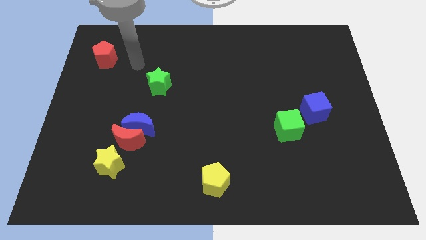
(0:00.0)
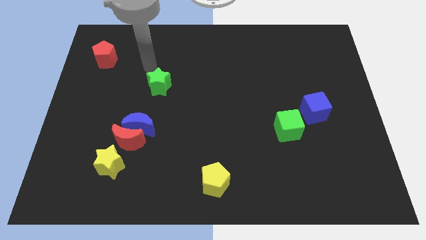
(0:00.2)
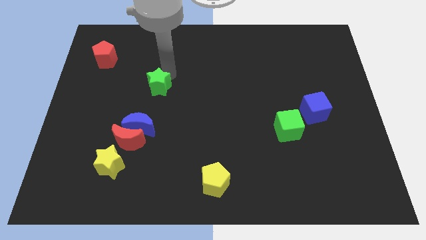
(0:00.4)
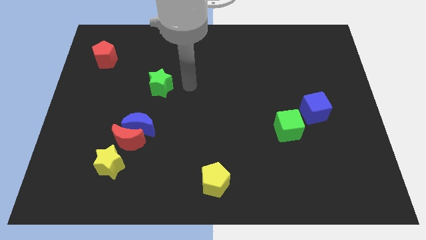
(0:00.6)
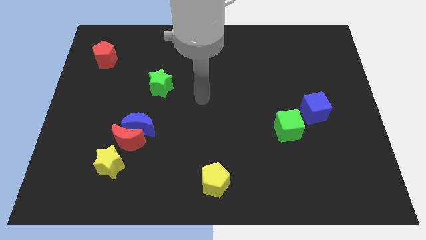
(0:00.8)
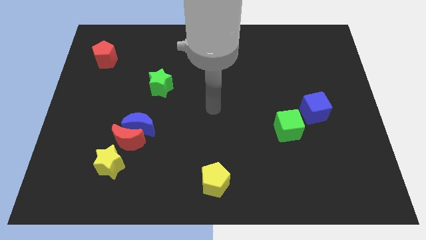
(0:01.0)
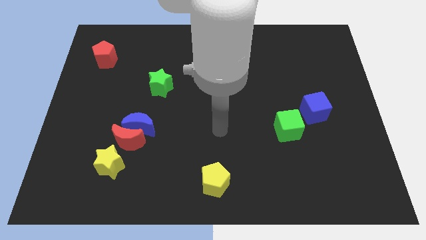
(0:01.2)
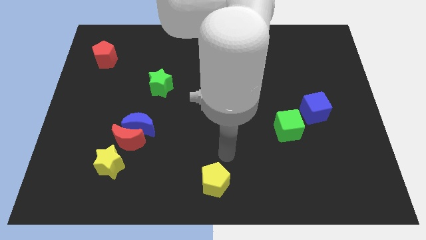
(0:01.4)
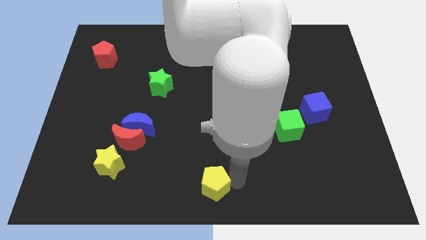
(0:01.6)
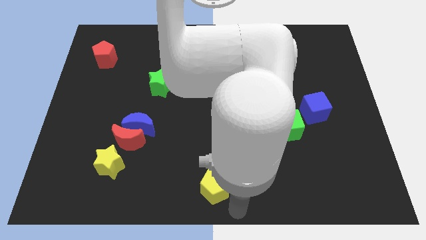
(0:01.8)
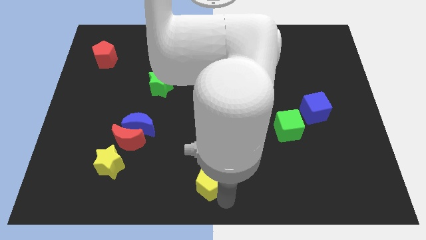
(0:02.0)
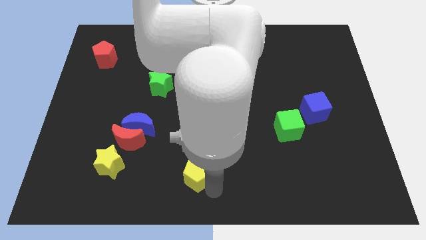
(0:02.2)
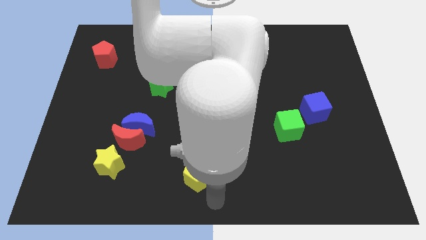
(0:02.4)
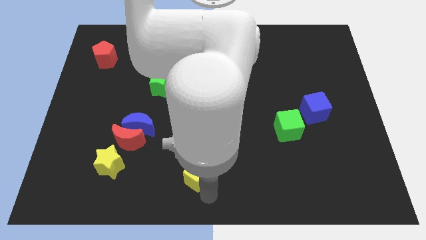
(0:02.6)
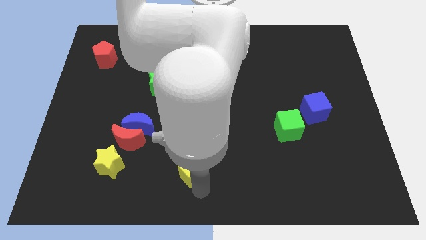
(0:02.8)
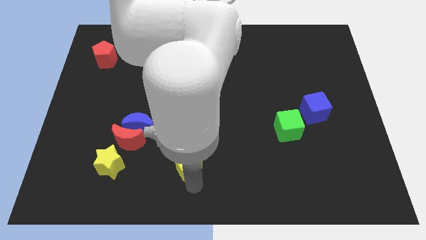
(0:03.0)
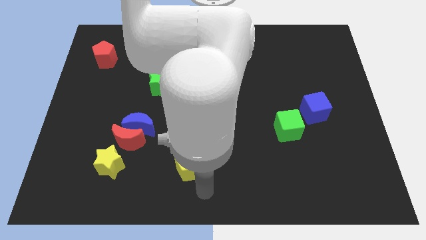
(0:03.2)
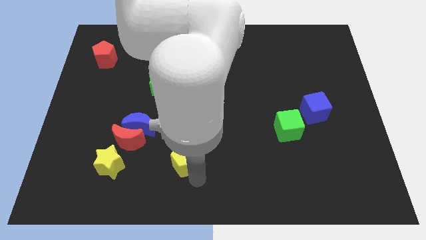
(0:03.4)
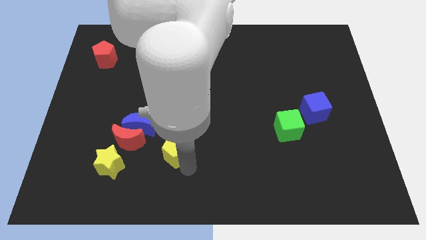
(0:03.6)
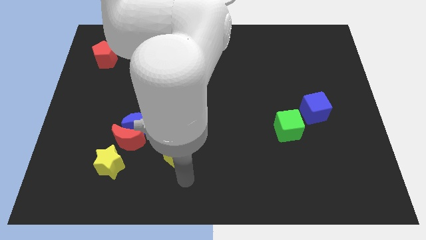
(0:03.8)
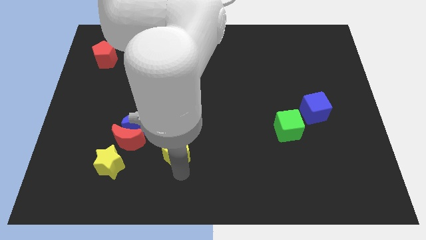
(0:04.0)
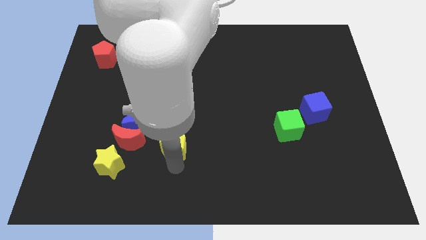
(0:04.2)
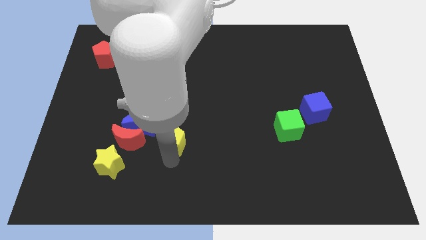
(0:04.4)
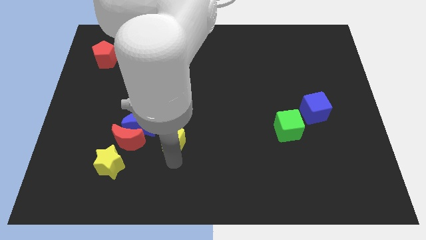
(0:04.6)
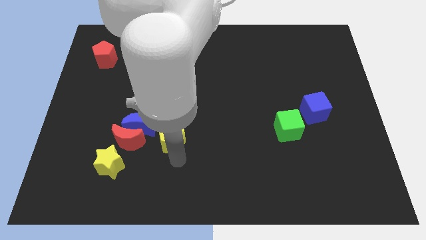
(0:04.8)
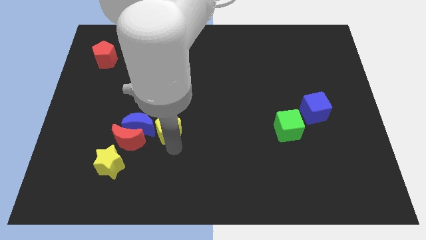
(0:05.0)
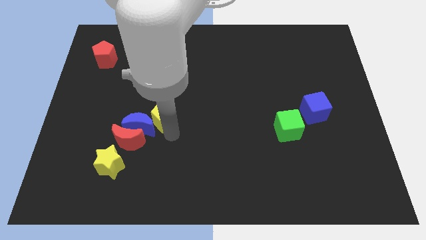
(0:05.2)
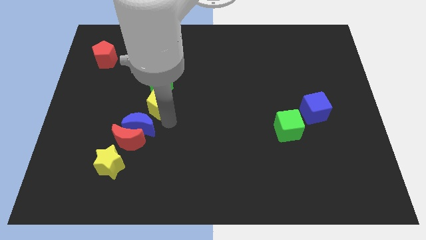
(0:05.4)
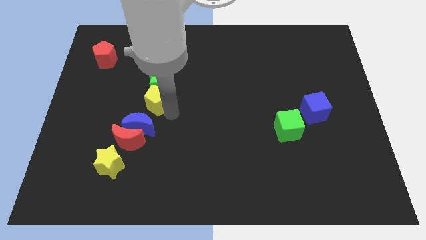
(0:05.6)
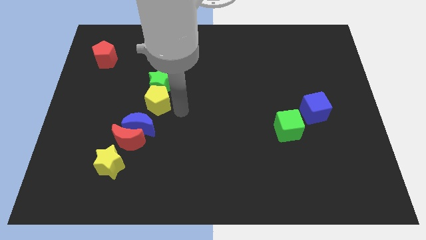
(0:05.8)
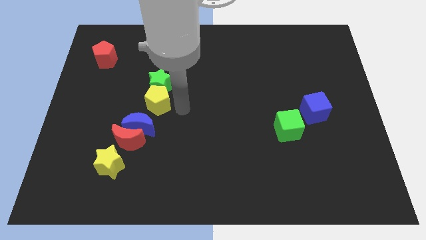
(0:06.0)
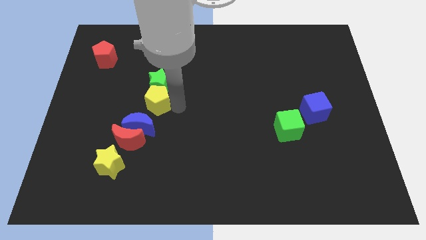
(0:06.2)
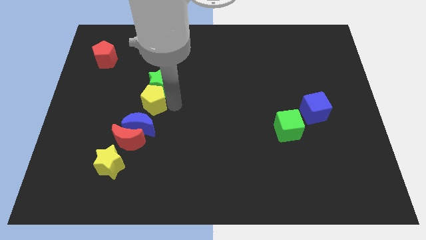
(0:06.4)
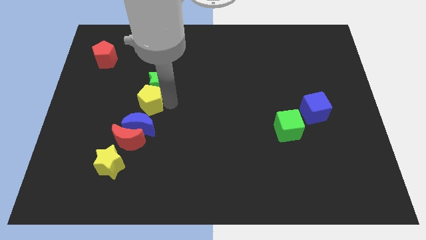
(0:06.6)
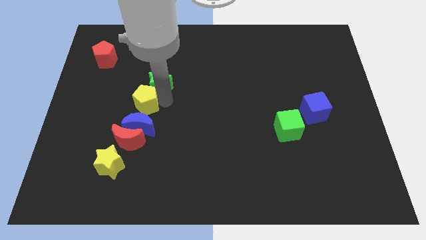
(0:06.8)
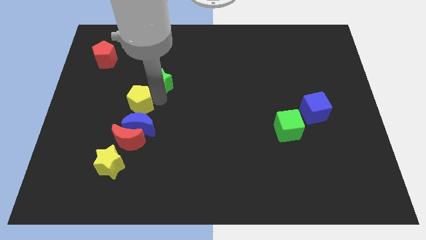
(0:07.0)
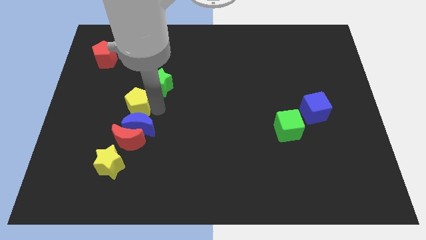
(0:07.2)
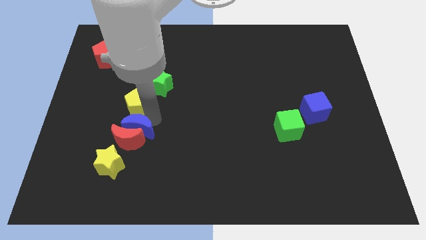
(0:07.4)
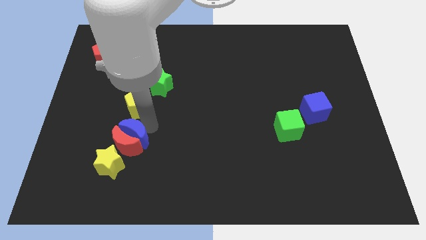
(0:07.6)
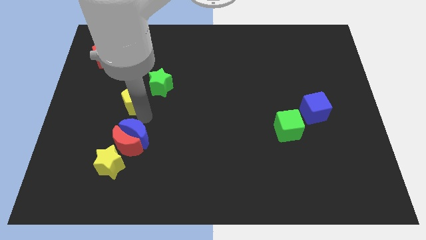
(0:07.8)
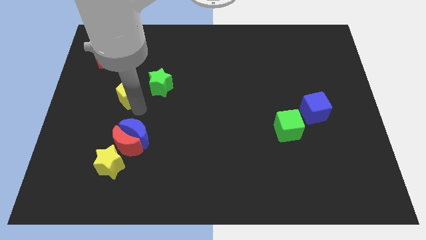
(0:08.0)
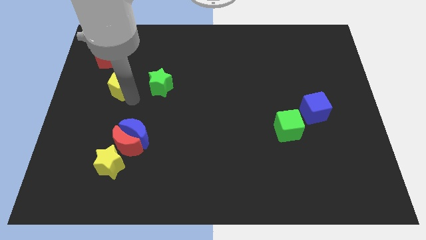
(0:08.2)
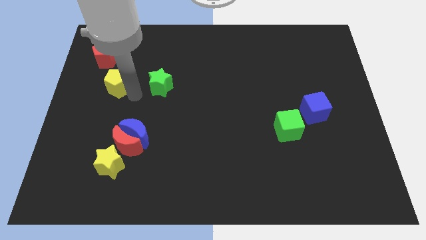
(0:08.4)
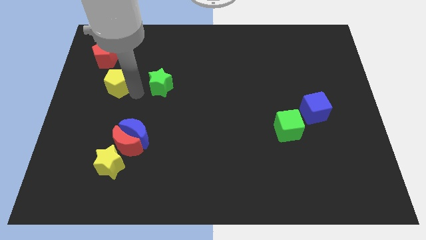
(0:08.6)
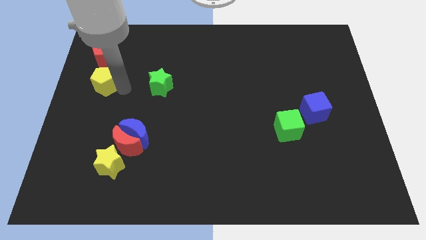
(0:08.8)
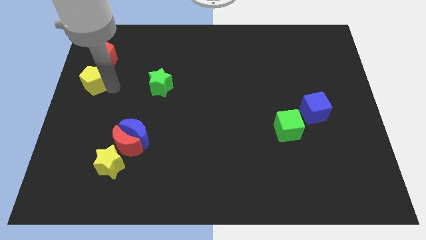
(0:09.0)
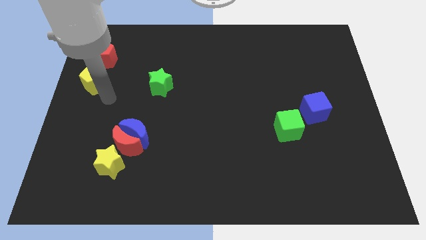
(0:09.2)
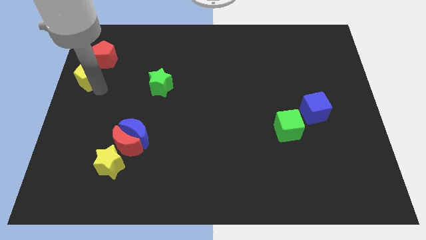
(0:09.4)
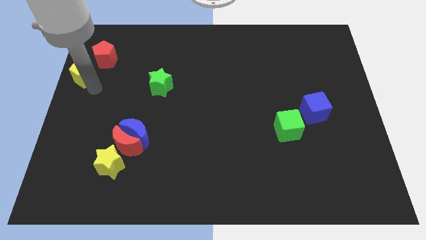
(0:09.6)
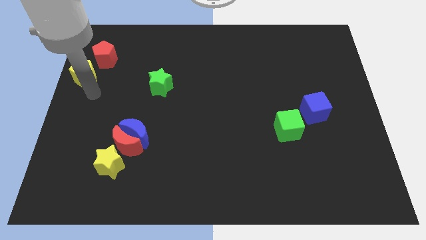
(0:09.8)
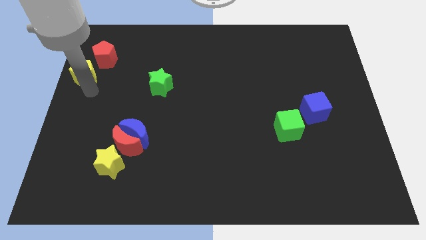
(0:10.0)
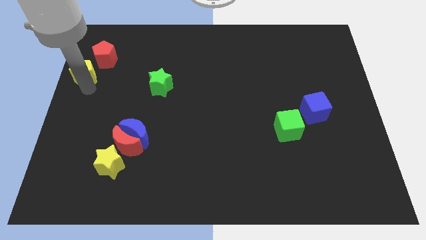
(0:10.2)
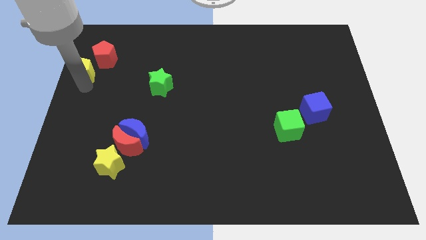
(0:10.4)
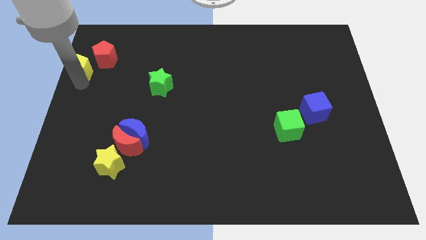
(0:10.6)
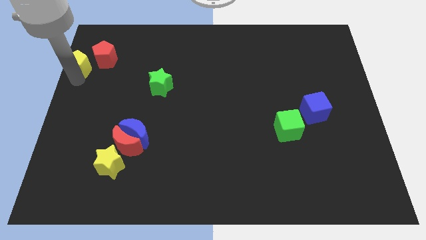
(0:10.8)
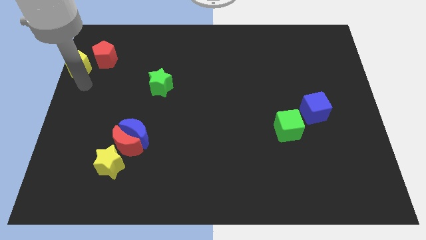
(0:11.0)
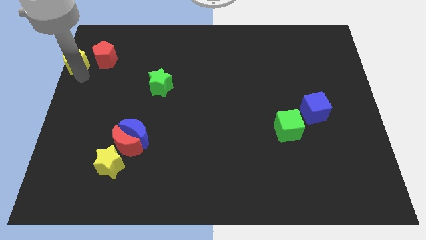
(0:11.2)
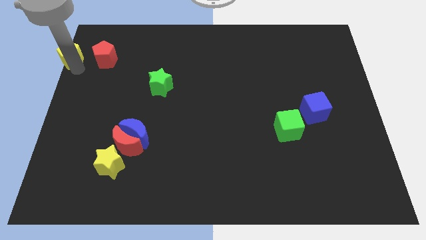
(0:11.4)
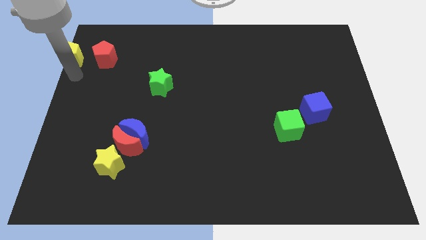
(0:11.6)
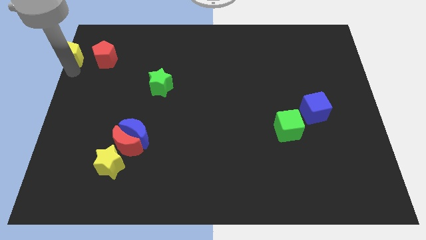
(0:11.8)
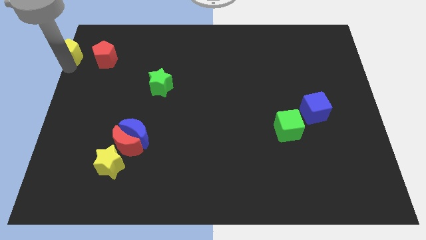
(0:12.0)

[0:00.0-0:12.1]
slide the yellow pentagon to the top left
